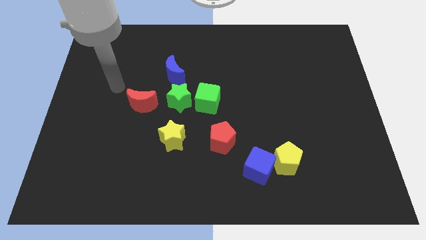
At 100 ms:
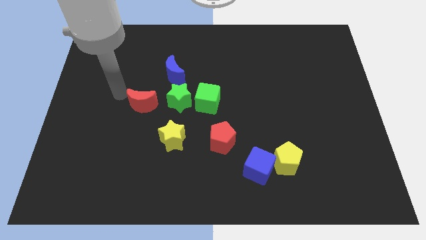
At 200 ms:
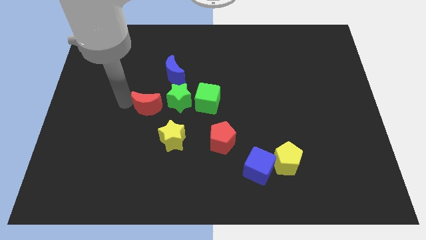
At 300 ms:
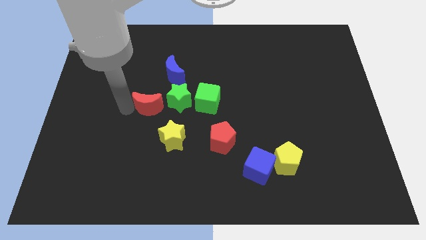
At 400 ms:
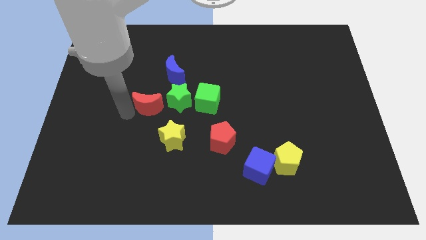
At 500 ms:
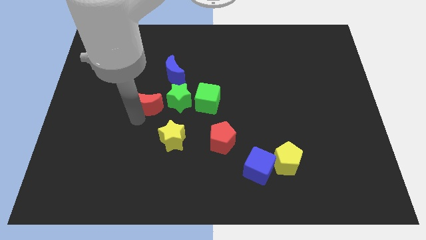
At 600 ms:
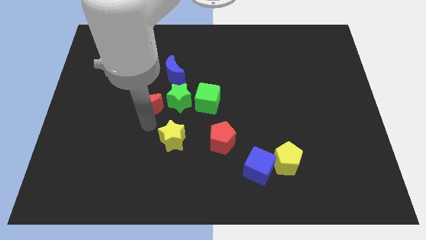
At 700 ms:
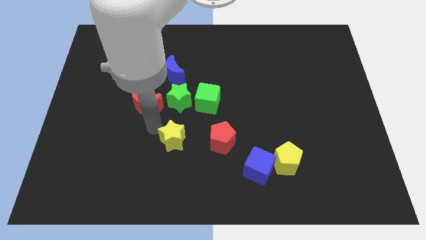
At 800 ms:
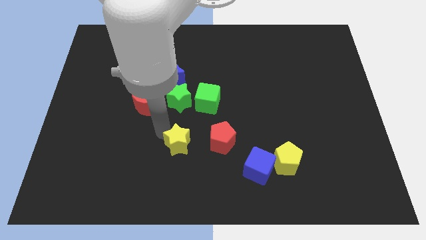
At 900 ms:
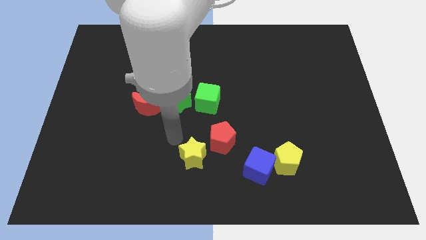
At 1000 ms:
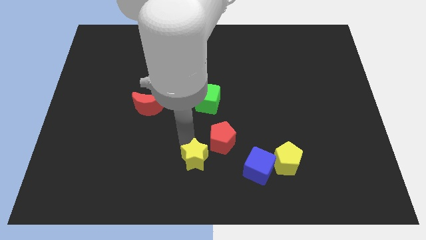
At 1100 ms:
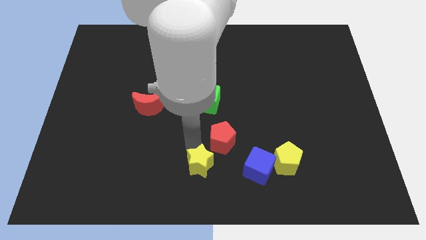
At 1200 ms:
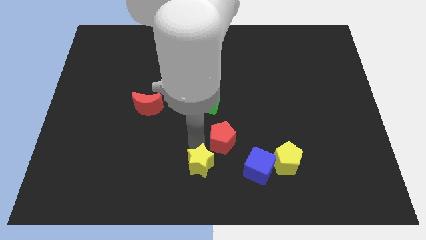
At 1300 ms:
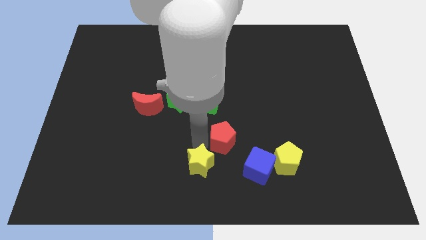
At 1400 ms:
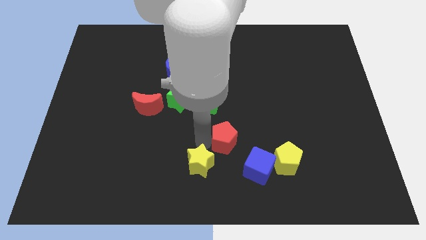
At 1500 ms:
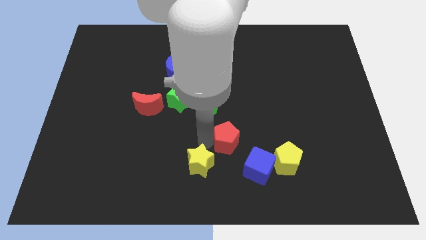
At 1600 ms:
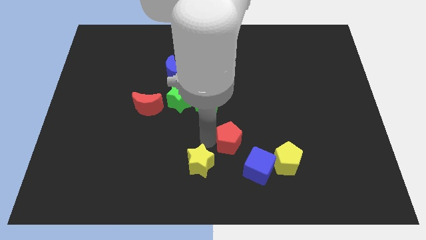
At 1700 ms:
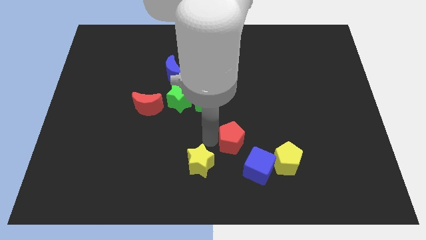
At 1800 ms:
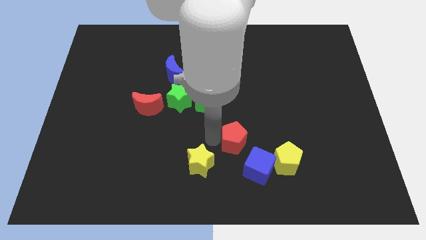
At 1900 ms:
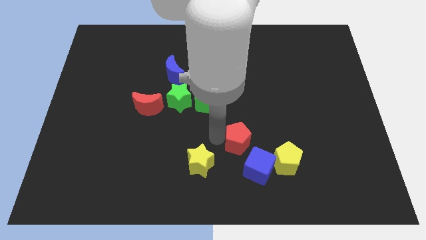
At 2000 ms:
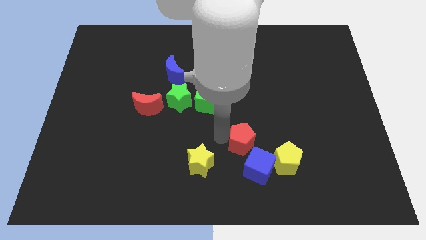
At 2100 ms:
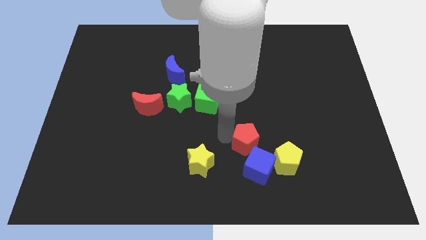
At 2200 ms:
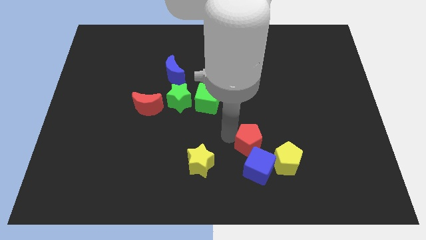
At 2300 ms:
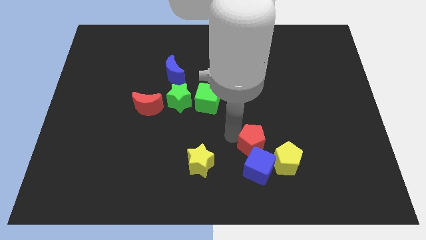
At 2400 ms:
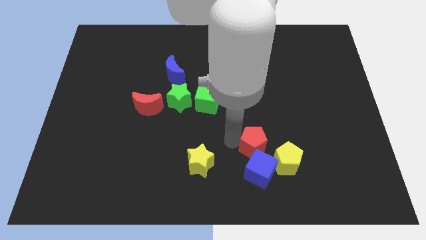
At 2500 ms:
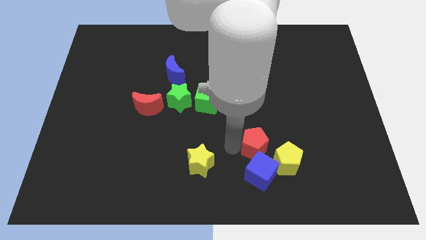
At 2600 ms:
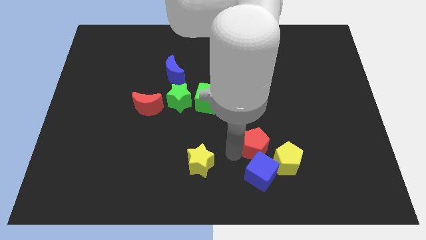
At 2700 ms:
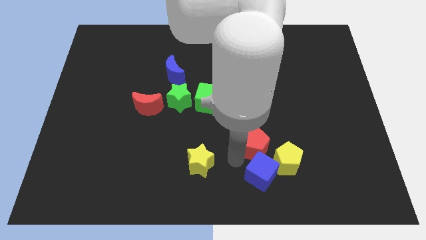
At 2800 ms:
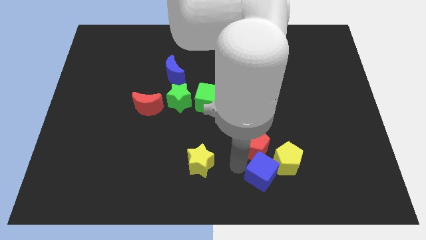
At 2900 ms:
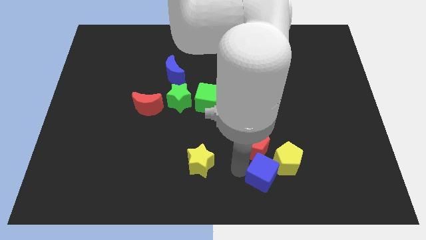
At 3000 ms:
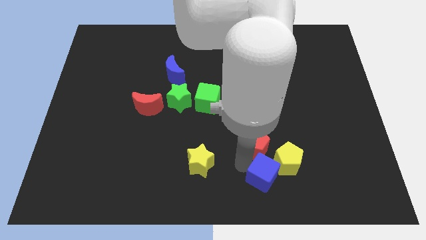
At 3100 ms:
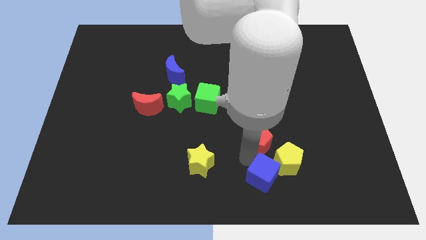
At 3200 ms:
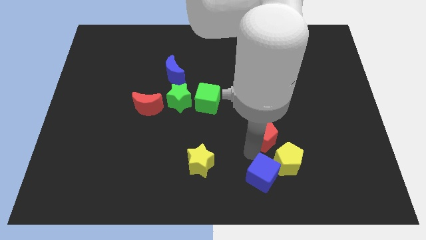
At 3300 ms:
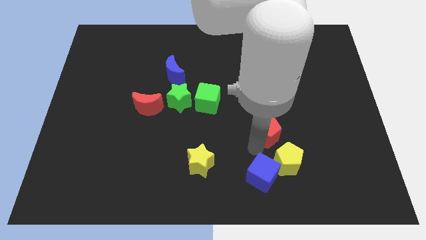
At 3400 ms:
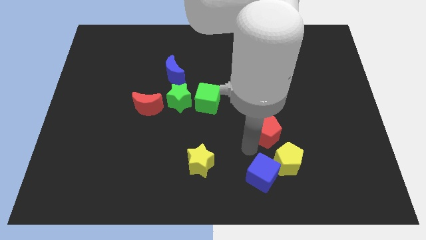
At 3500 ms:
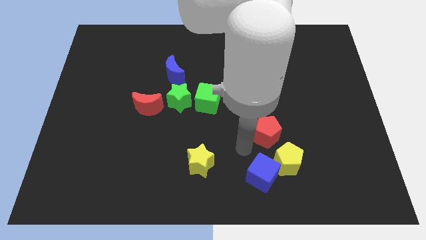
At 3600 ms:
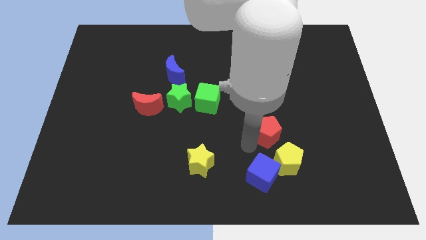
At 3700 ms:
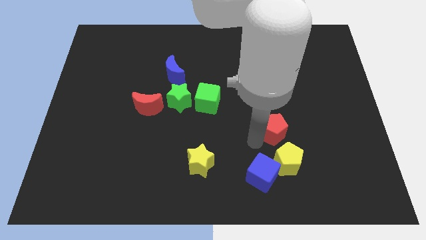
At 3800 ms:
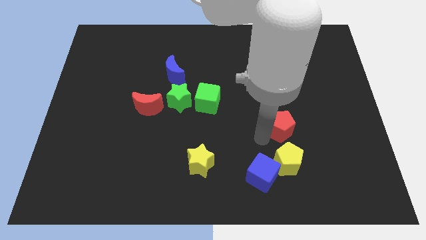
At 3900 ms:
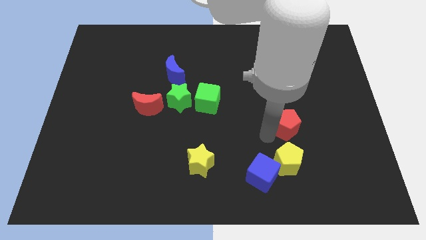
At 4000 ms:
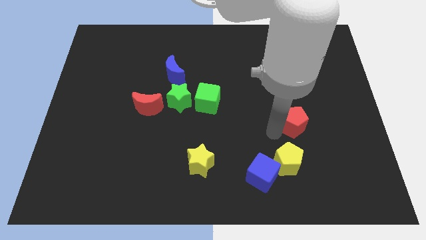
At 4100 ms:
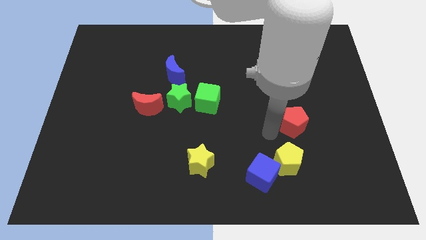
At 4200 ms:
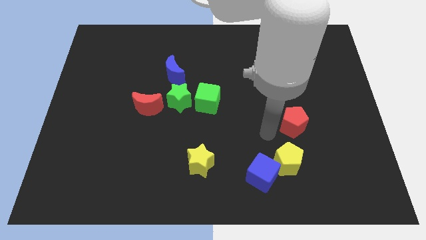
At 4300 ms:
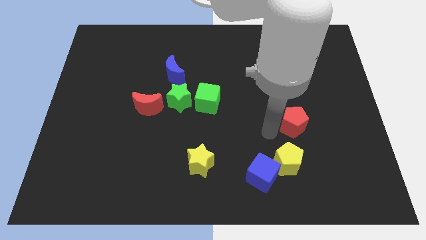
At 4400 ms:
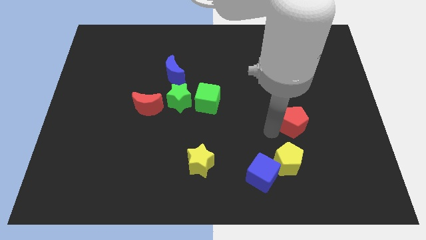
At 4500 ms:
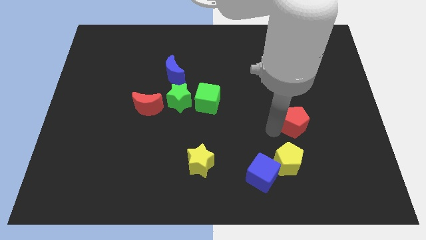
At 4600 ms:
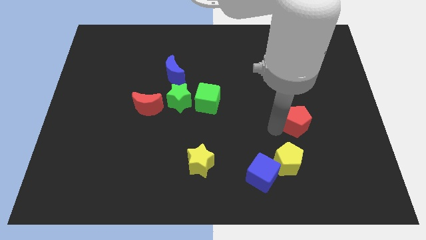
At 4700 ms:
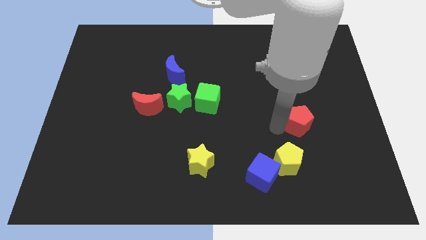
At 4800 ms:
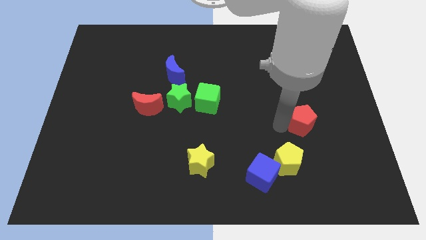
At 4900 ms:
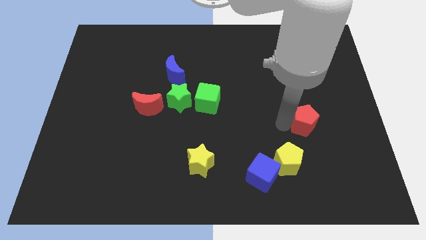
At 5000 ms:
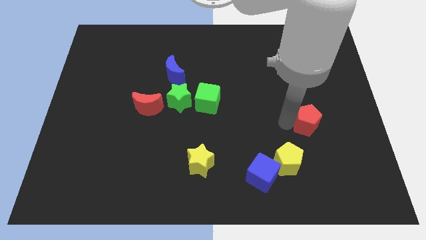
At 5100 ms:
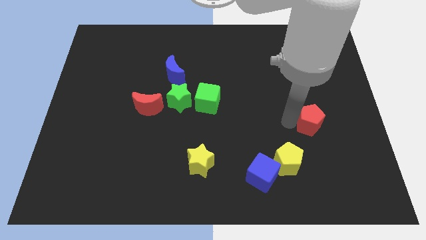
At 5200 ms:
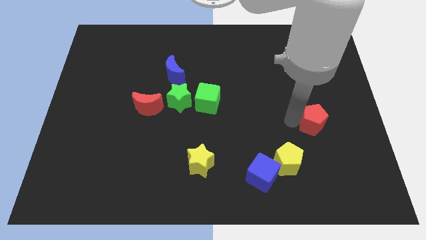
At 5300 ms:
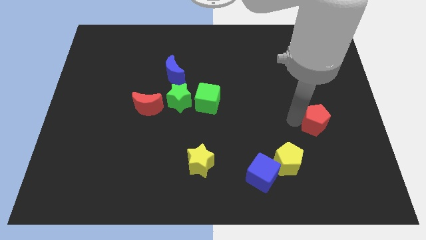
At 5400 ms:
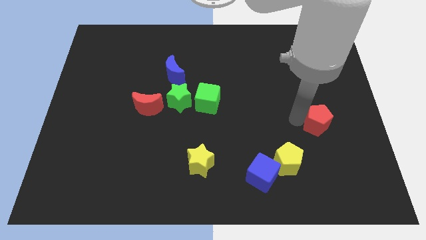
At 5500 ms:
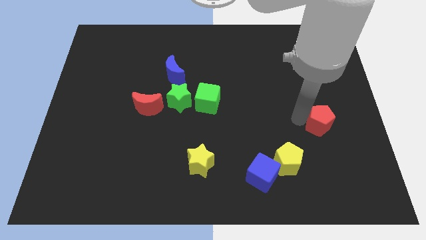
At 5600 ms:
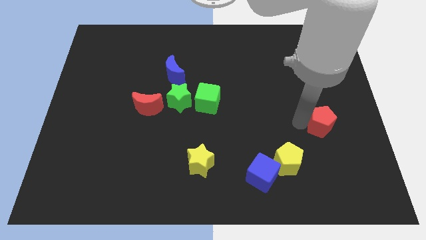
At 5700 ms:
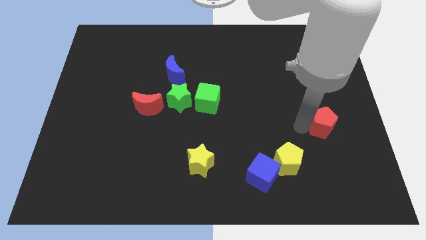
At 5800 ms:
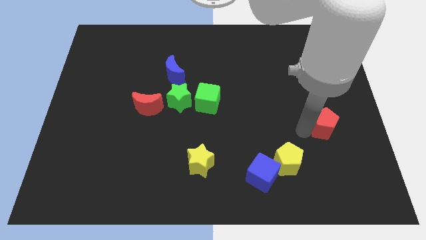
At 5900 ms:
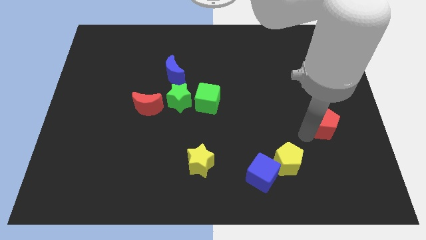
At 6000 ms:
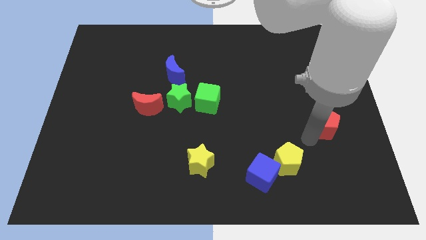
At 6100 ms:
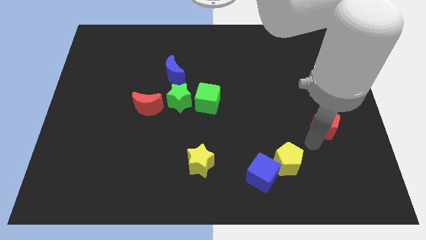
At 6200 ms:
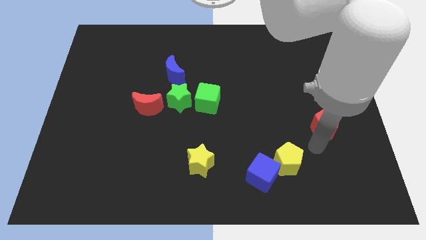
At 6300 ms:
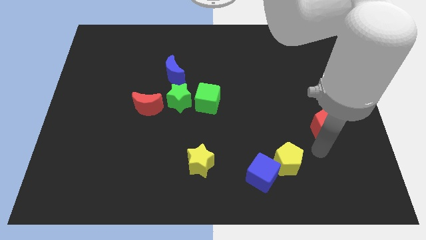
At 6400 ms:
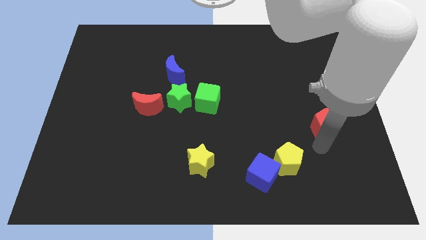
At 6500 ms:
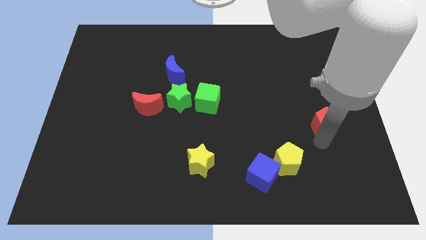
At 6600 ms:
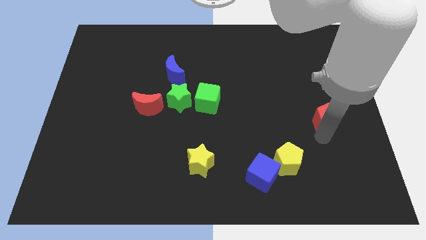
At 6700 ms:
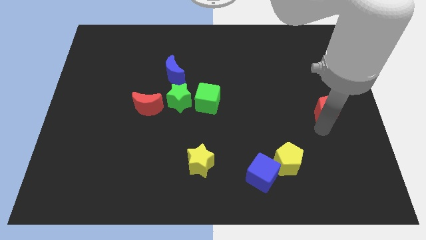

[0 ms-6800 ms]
put the red pentagon to the right side
